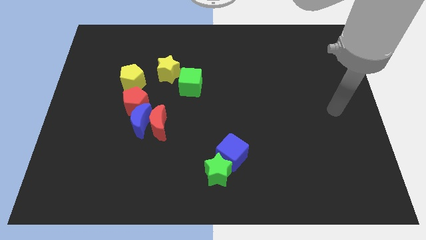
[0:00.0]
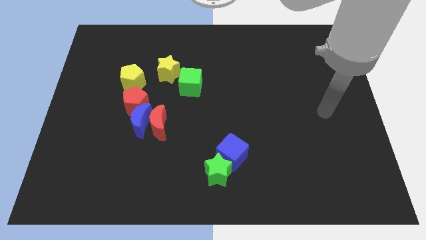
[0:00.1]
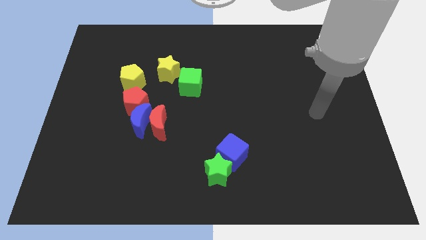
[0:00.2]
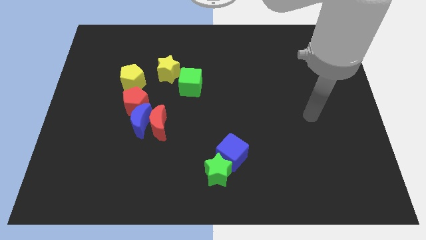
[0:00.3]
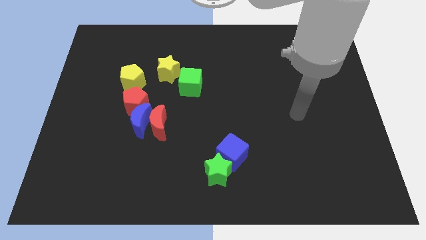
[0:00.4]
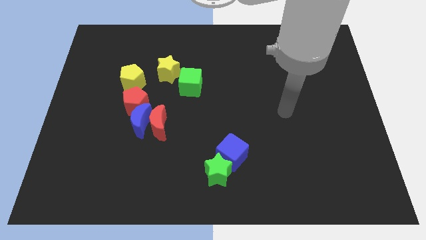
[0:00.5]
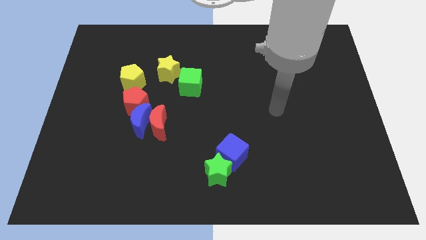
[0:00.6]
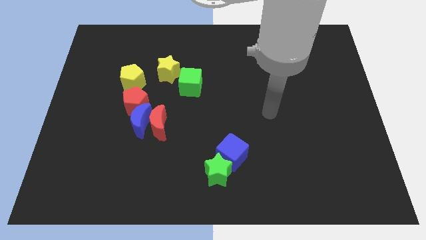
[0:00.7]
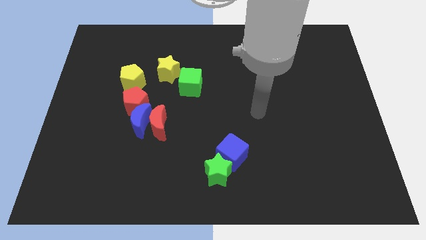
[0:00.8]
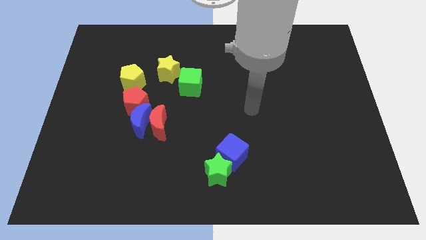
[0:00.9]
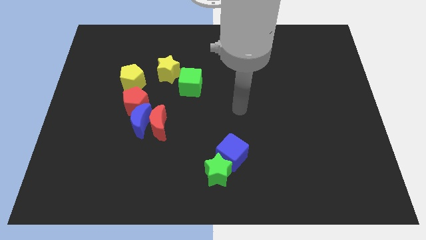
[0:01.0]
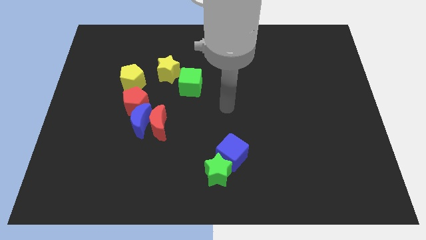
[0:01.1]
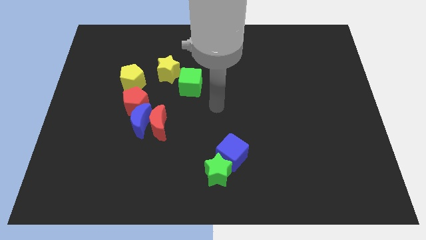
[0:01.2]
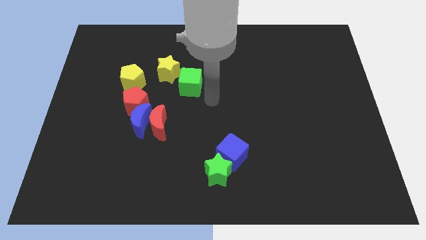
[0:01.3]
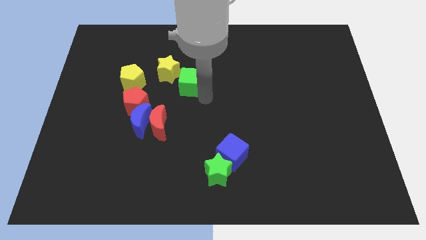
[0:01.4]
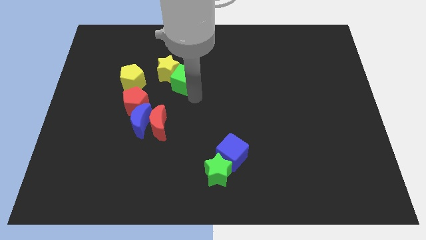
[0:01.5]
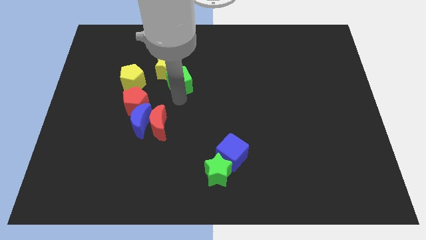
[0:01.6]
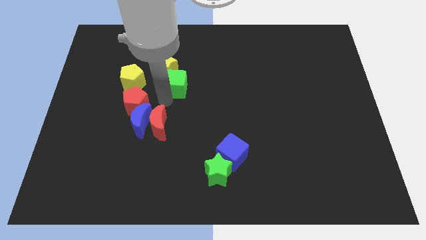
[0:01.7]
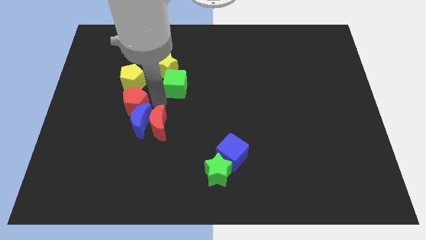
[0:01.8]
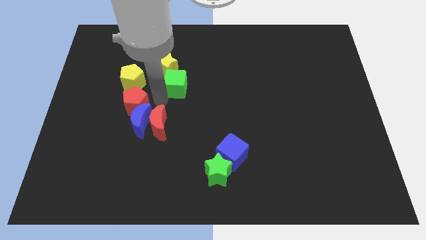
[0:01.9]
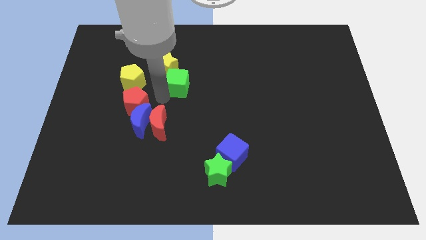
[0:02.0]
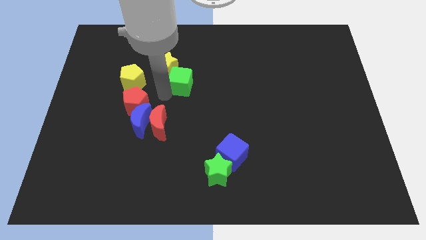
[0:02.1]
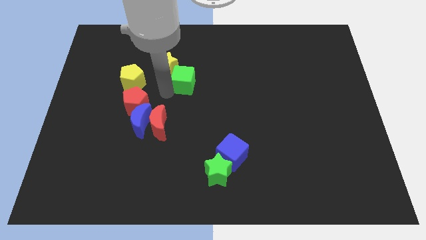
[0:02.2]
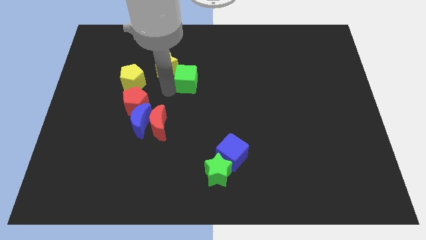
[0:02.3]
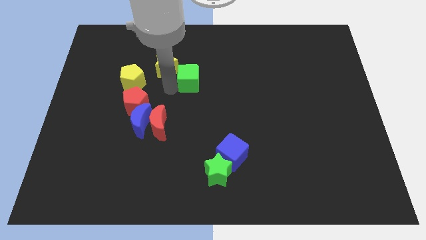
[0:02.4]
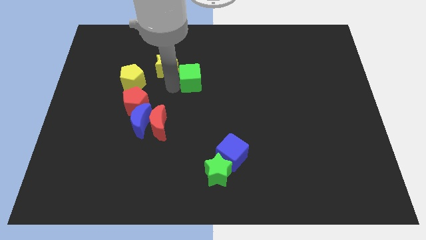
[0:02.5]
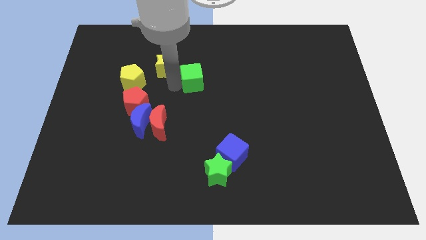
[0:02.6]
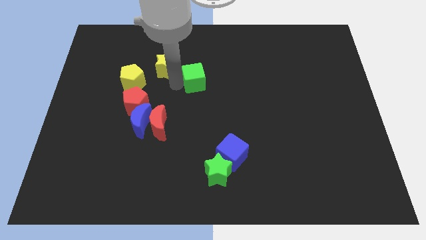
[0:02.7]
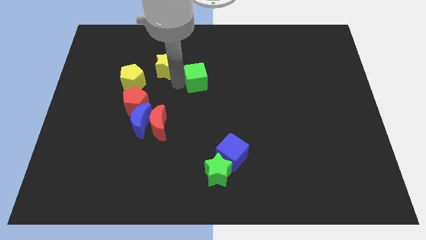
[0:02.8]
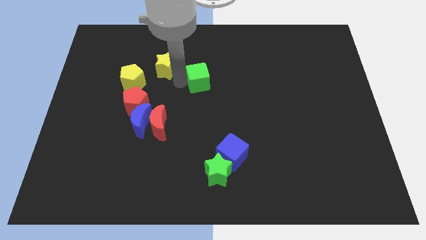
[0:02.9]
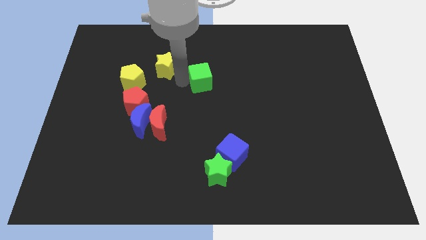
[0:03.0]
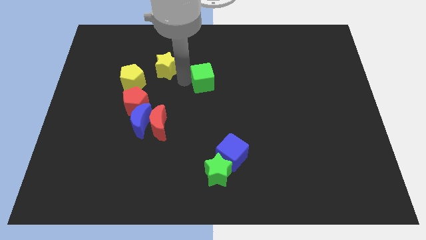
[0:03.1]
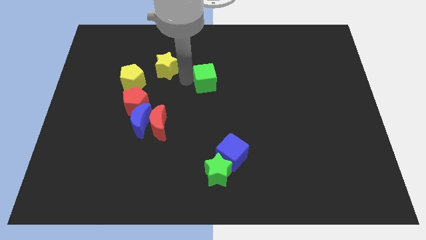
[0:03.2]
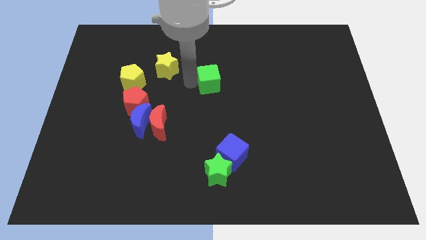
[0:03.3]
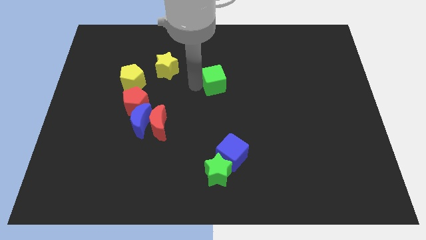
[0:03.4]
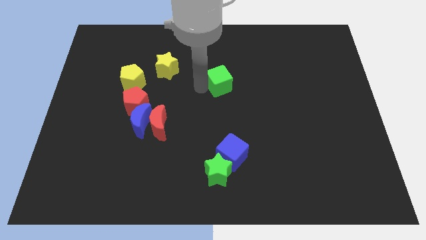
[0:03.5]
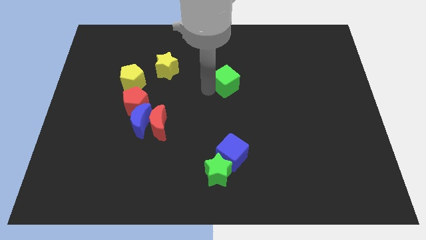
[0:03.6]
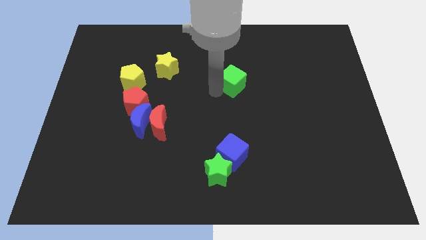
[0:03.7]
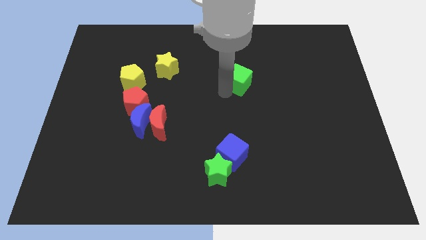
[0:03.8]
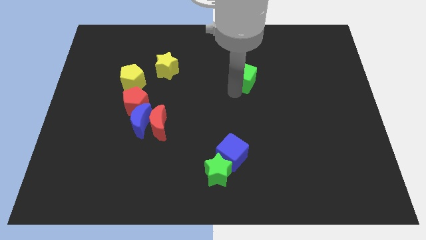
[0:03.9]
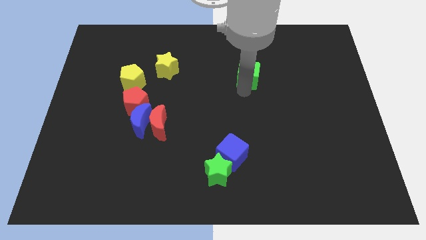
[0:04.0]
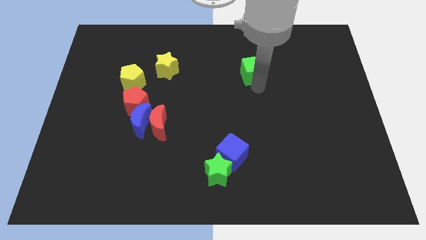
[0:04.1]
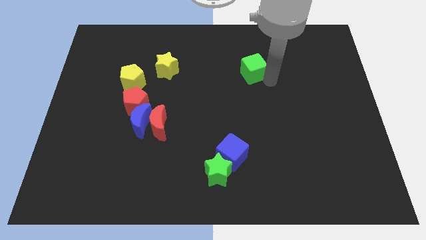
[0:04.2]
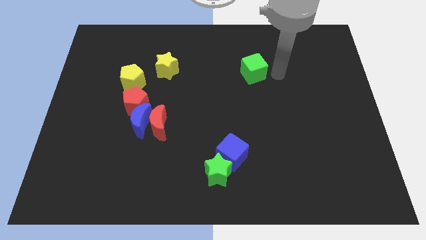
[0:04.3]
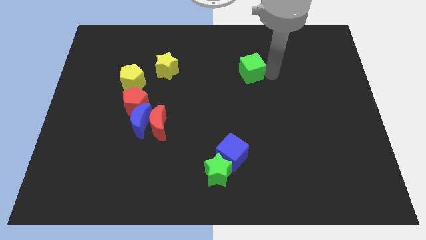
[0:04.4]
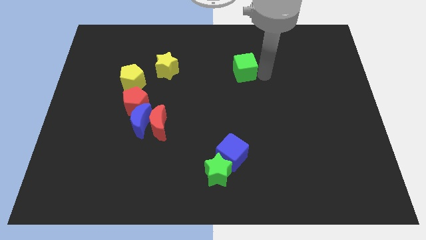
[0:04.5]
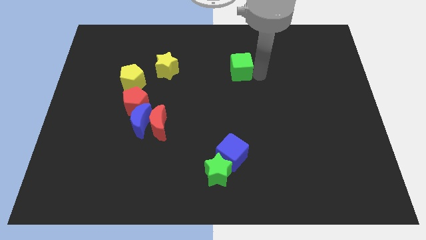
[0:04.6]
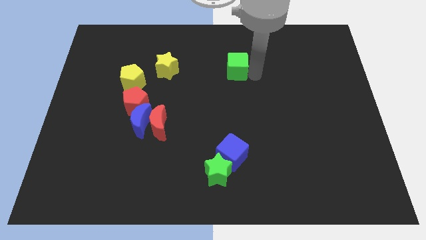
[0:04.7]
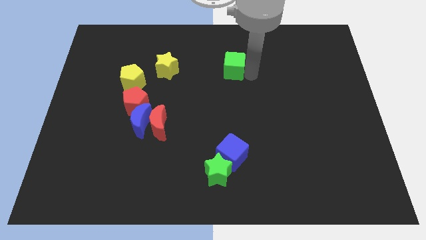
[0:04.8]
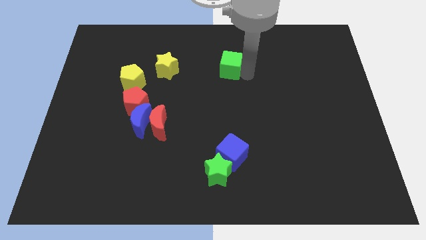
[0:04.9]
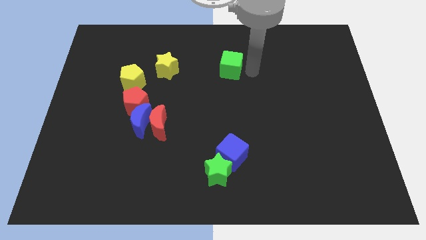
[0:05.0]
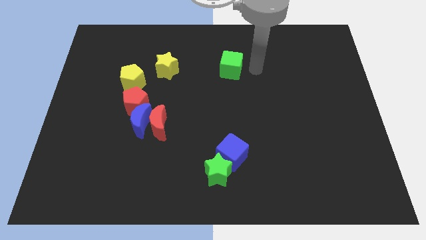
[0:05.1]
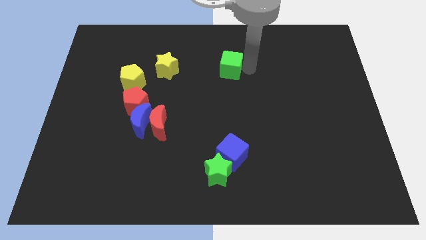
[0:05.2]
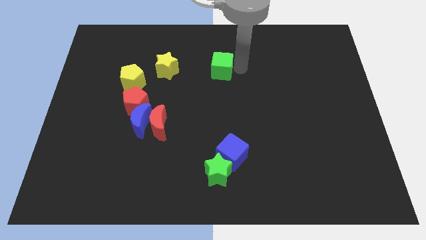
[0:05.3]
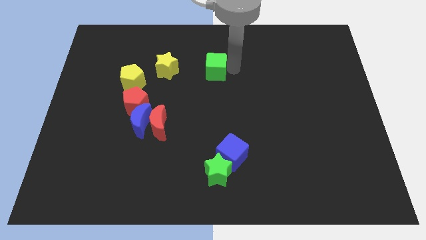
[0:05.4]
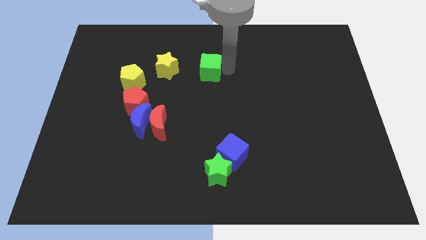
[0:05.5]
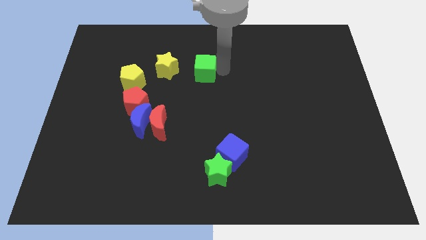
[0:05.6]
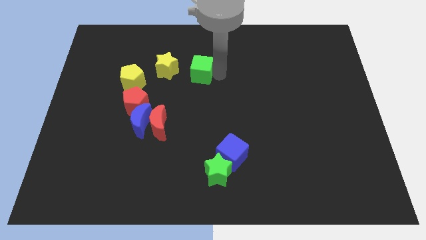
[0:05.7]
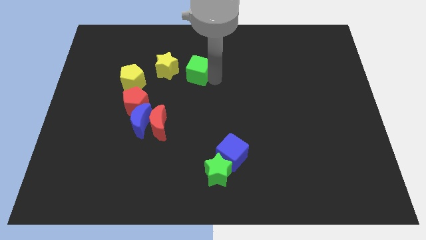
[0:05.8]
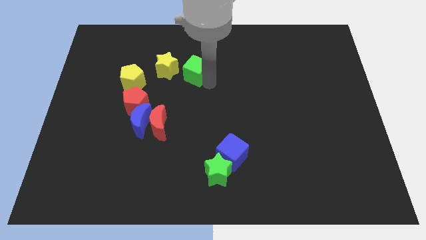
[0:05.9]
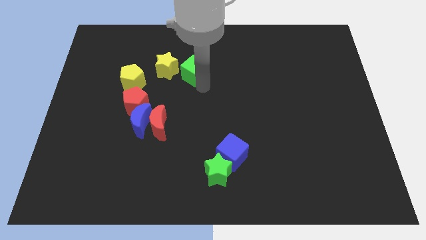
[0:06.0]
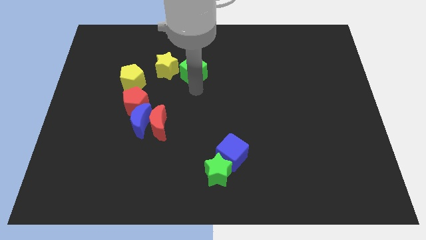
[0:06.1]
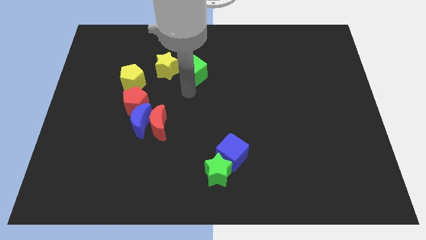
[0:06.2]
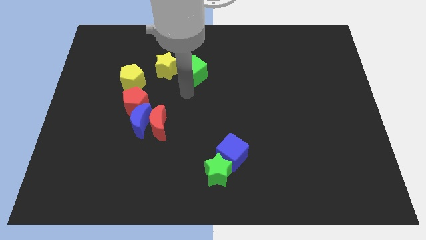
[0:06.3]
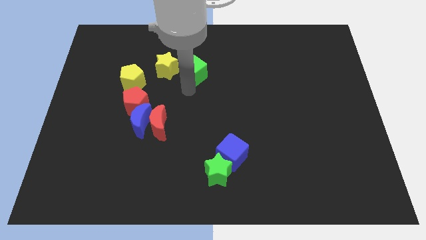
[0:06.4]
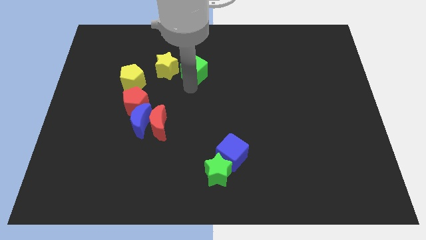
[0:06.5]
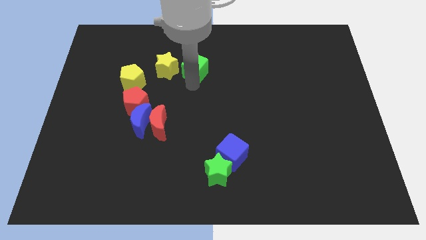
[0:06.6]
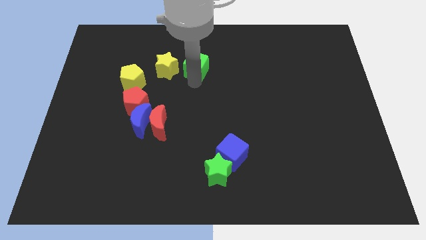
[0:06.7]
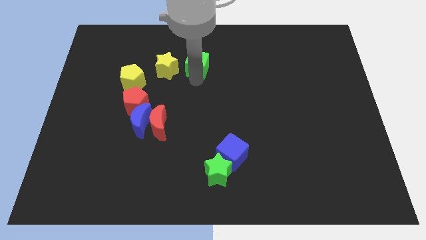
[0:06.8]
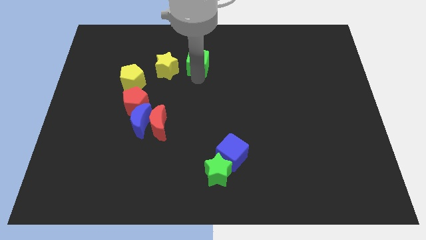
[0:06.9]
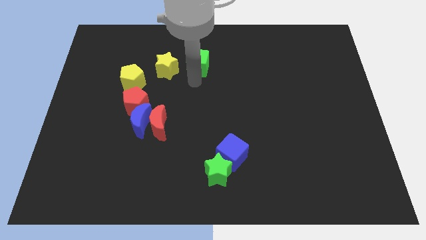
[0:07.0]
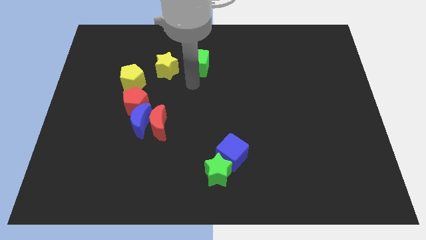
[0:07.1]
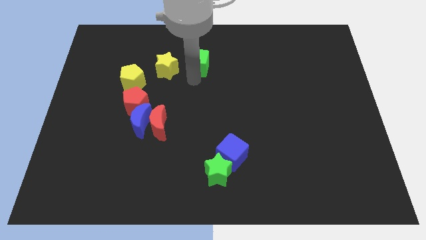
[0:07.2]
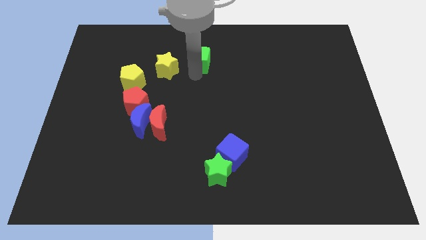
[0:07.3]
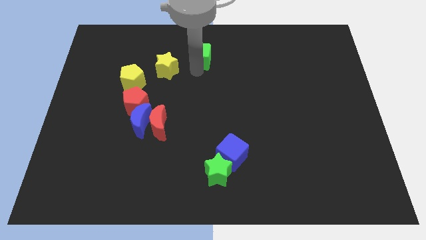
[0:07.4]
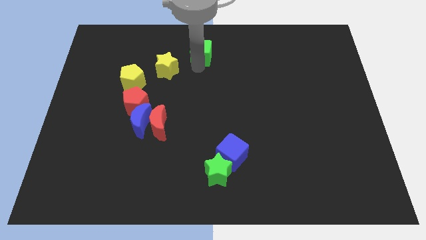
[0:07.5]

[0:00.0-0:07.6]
push the green cube to the top side
